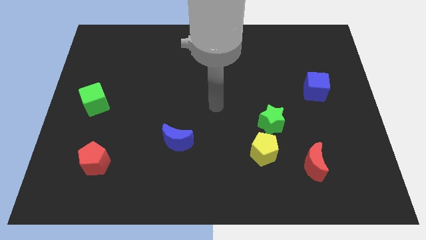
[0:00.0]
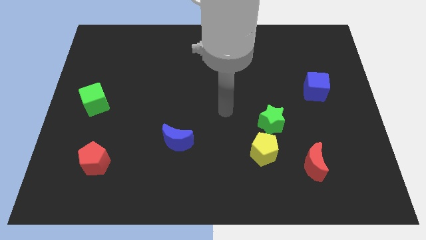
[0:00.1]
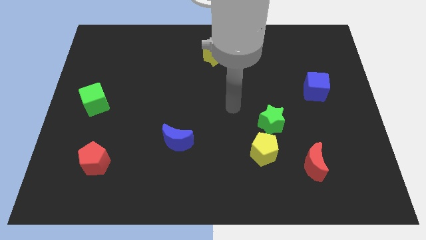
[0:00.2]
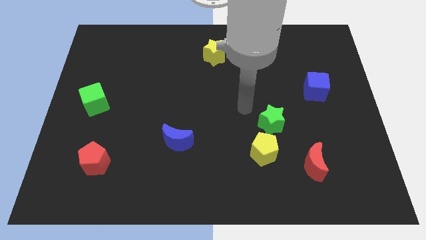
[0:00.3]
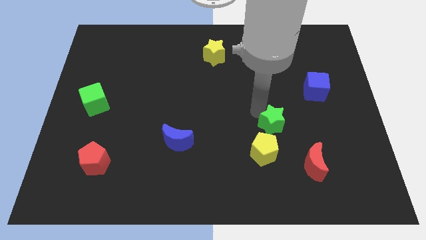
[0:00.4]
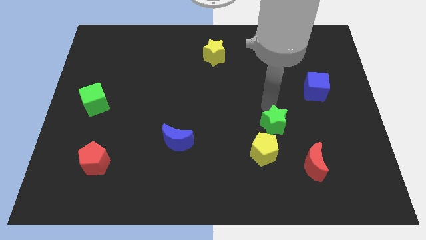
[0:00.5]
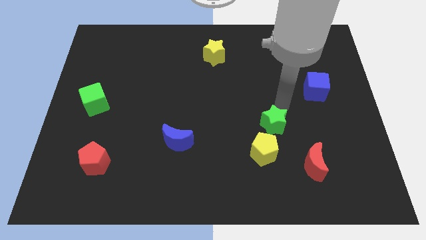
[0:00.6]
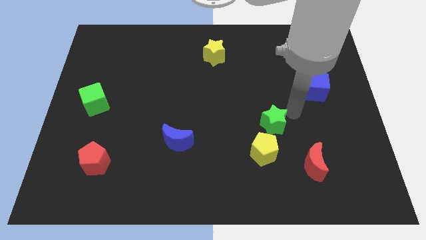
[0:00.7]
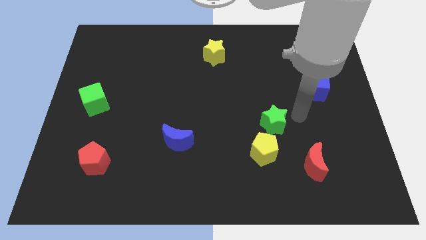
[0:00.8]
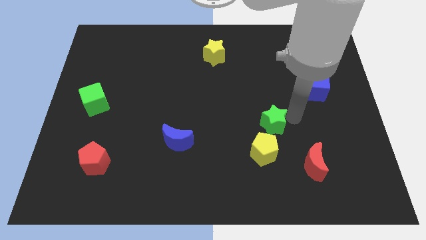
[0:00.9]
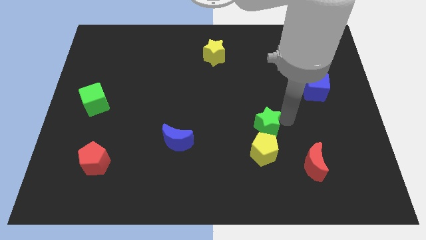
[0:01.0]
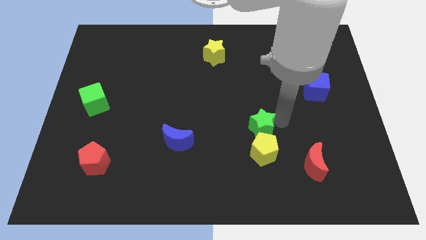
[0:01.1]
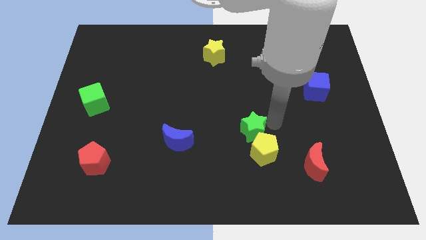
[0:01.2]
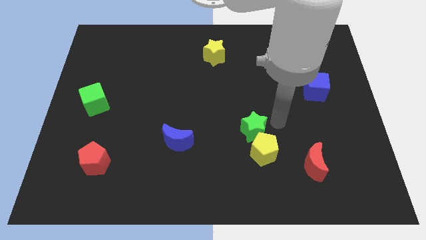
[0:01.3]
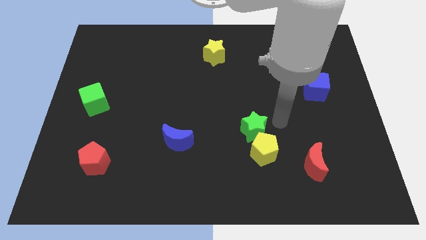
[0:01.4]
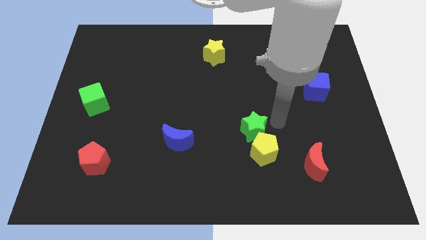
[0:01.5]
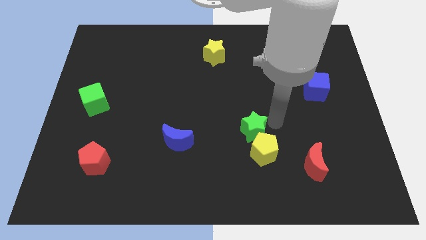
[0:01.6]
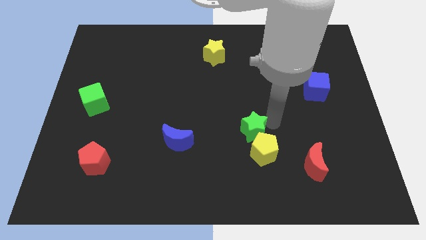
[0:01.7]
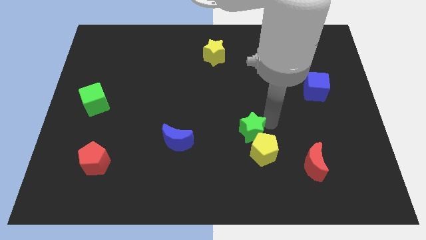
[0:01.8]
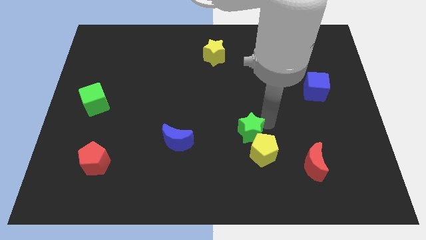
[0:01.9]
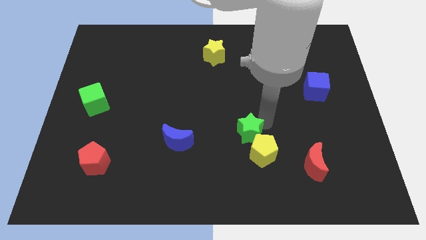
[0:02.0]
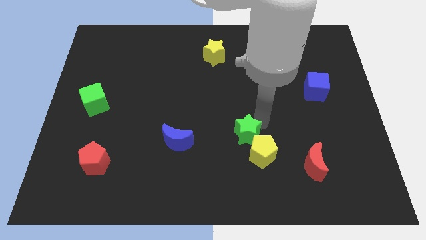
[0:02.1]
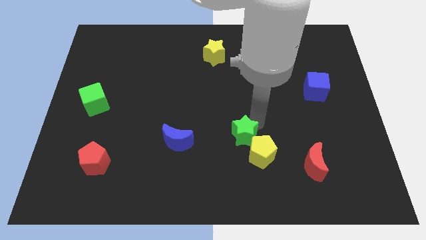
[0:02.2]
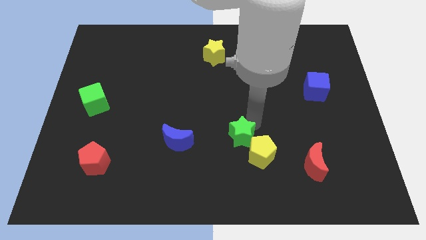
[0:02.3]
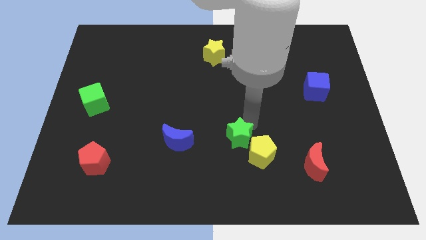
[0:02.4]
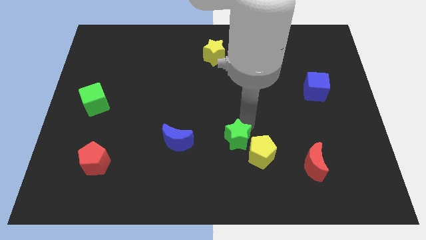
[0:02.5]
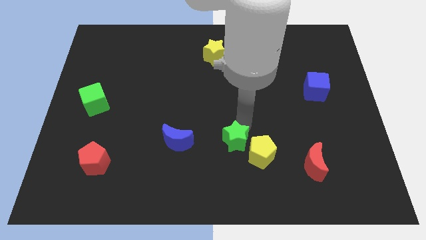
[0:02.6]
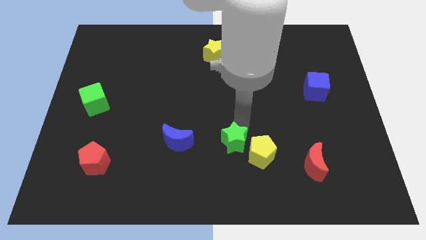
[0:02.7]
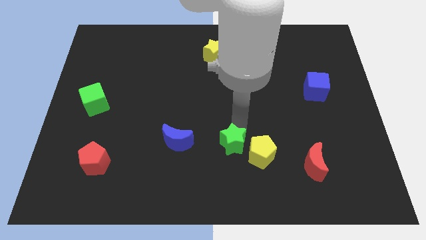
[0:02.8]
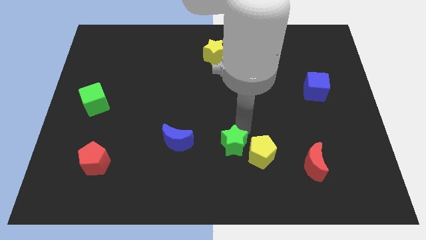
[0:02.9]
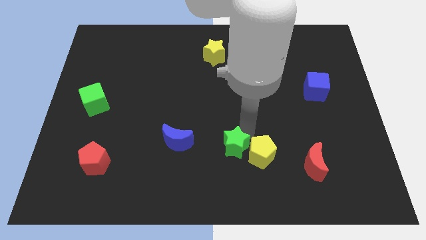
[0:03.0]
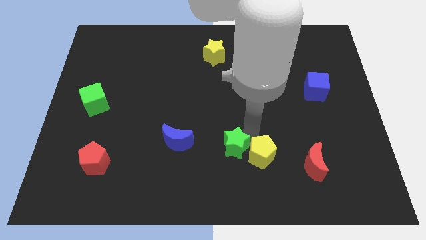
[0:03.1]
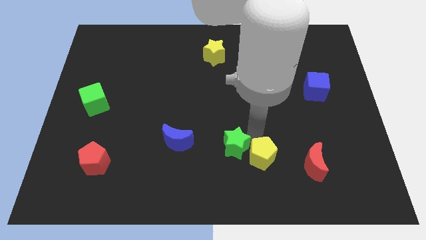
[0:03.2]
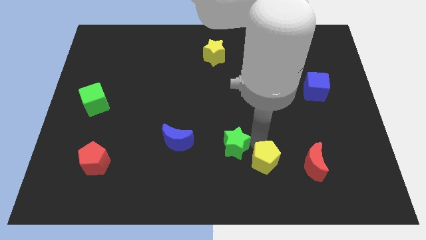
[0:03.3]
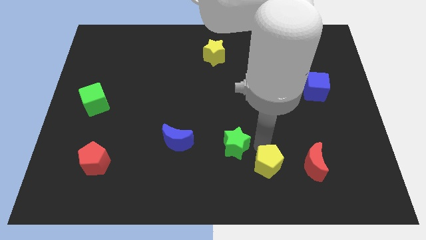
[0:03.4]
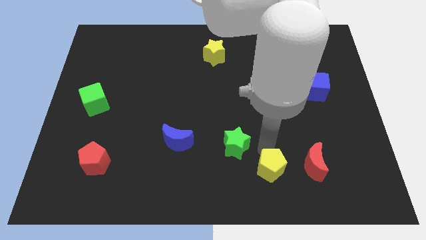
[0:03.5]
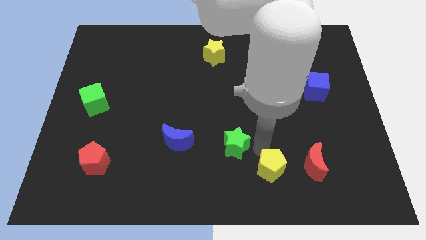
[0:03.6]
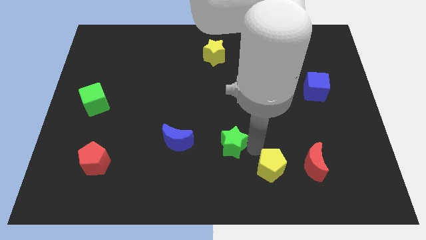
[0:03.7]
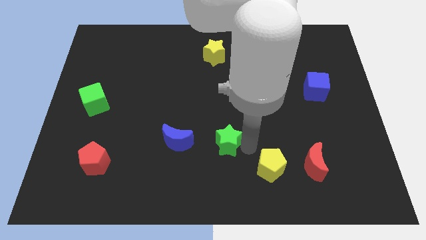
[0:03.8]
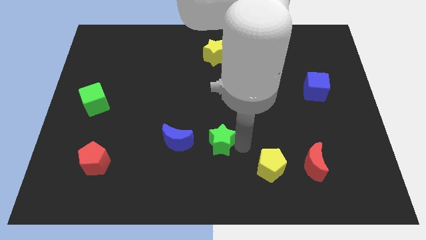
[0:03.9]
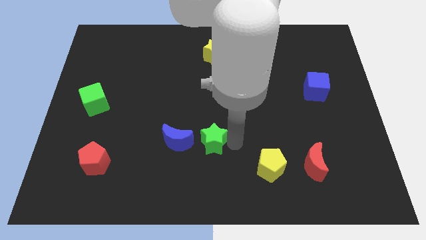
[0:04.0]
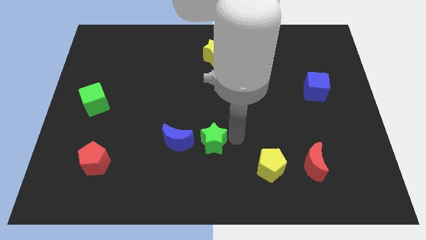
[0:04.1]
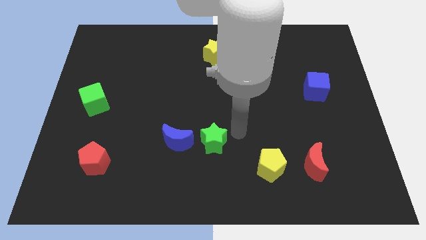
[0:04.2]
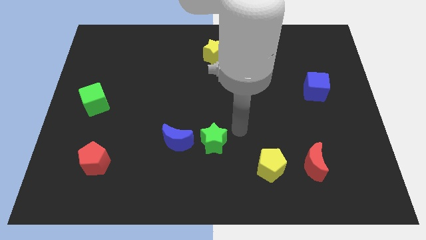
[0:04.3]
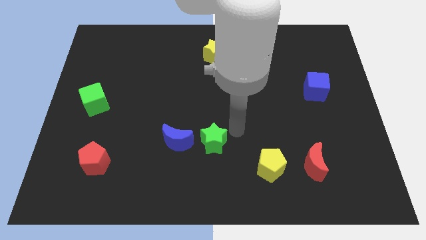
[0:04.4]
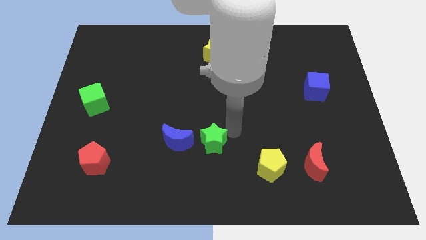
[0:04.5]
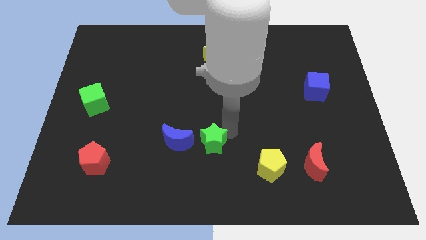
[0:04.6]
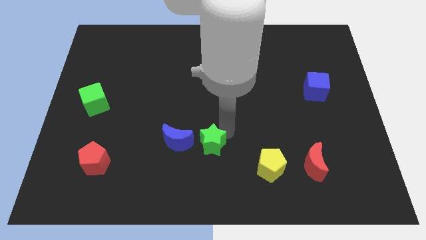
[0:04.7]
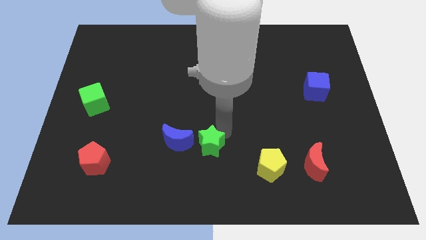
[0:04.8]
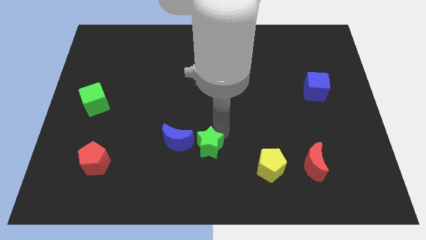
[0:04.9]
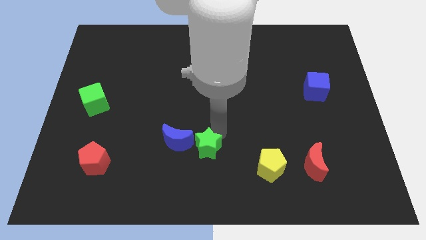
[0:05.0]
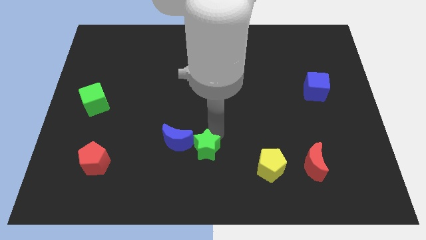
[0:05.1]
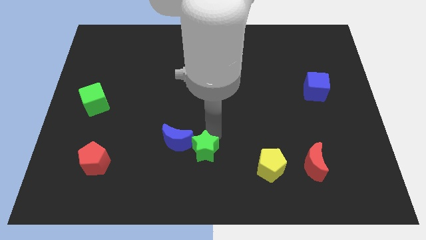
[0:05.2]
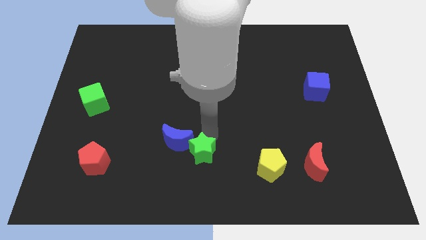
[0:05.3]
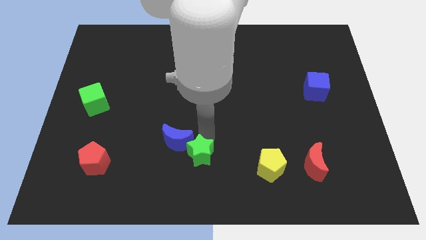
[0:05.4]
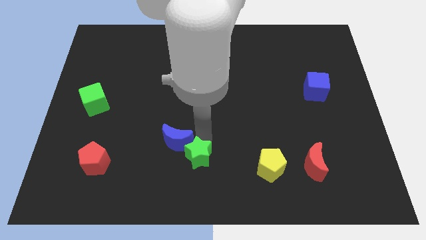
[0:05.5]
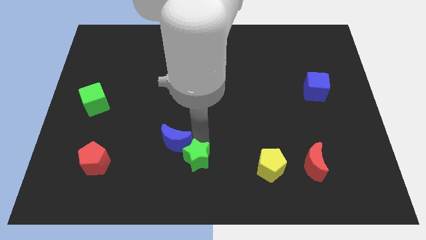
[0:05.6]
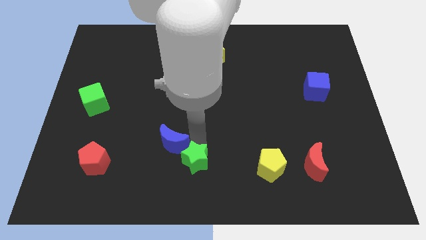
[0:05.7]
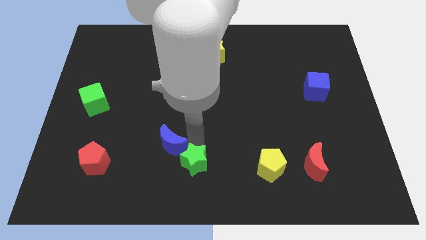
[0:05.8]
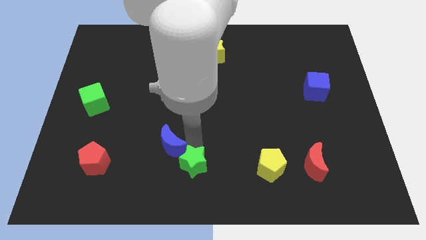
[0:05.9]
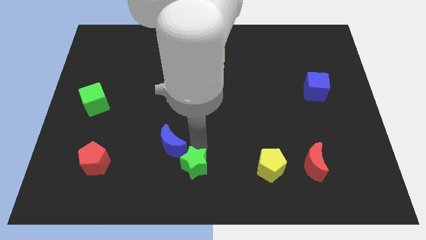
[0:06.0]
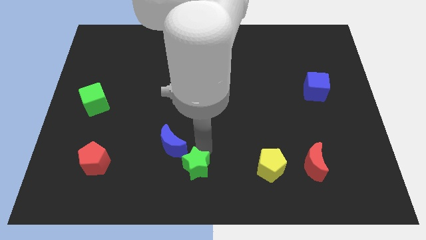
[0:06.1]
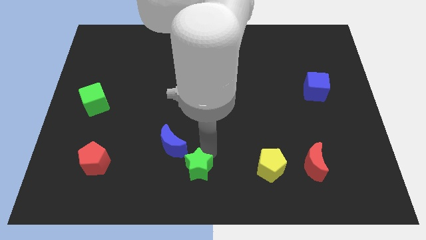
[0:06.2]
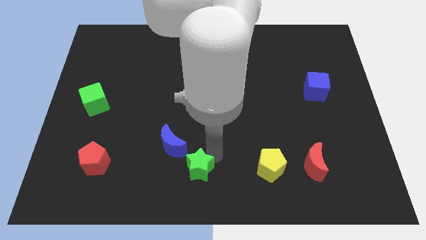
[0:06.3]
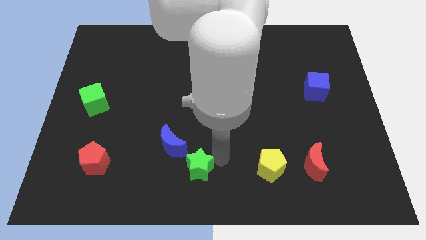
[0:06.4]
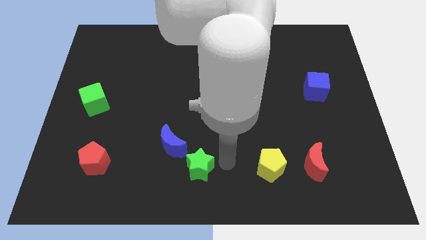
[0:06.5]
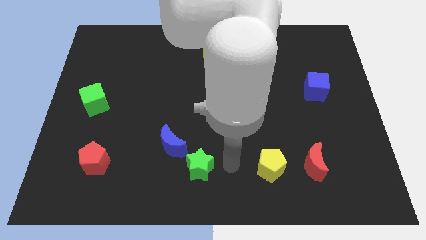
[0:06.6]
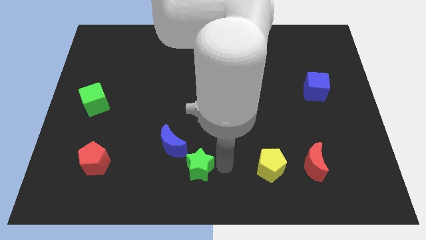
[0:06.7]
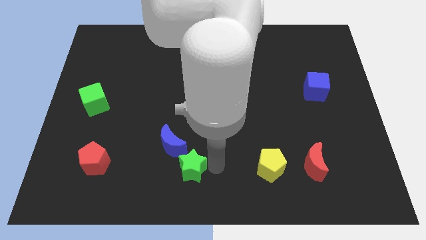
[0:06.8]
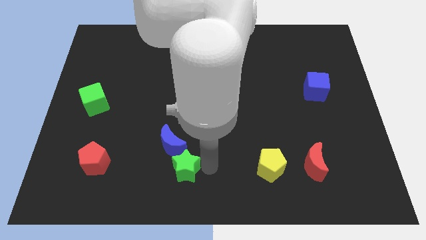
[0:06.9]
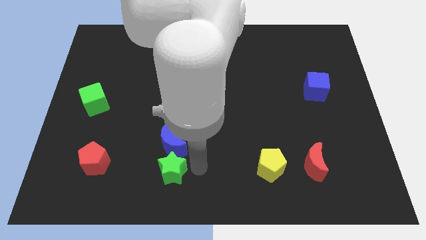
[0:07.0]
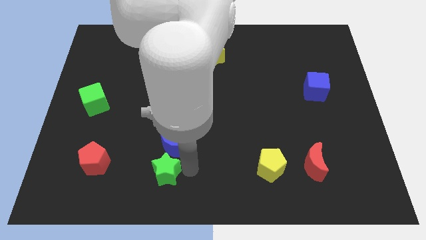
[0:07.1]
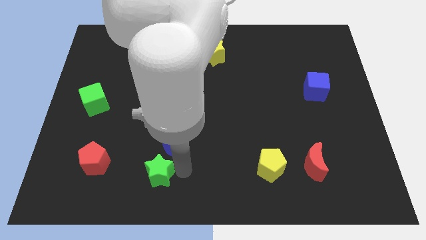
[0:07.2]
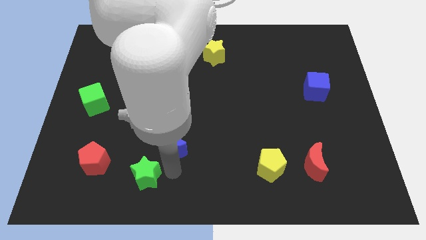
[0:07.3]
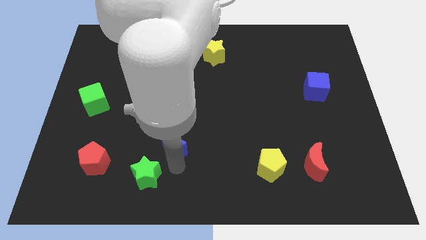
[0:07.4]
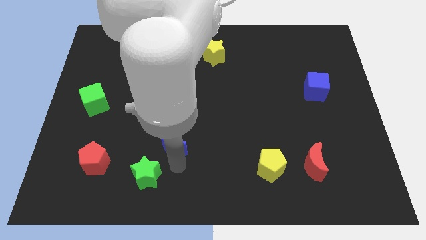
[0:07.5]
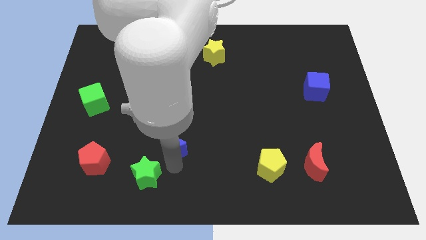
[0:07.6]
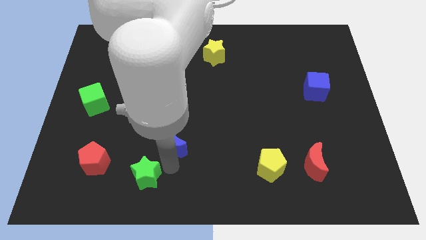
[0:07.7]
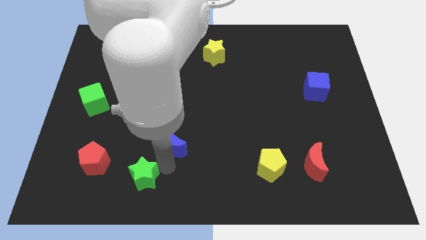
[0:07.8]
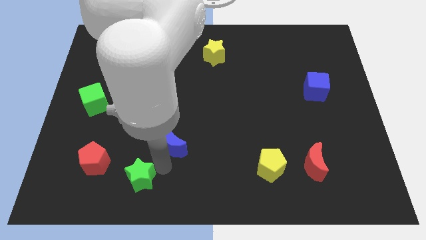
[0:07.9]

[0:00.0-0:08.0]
push the green star to the bottom right side of the red pentagon

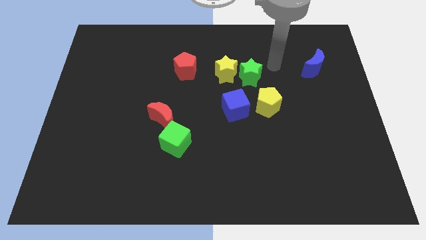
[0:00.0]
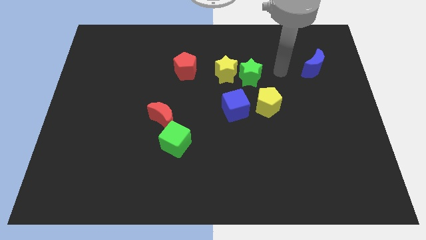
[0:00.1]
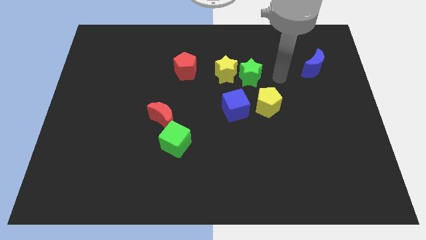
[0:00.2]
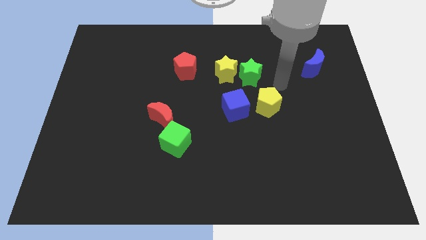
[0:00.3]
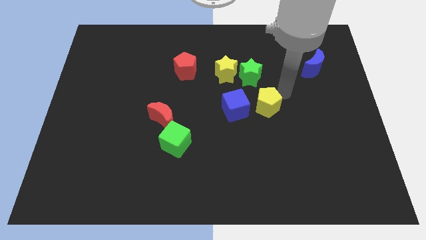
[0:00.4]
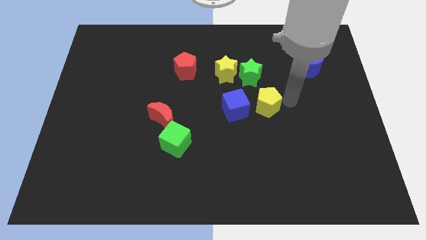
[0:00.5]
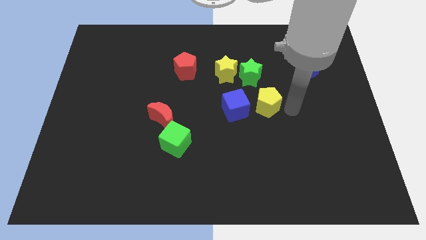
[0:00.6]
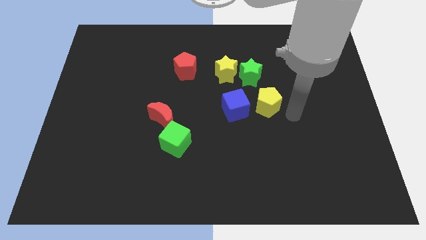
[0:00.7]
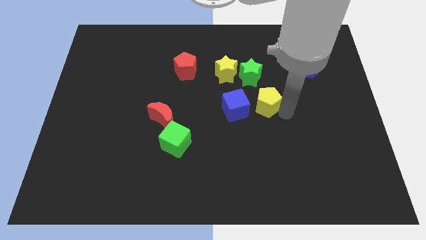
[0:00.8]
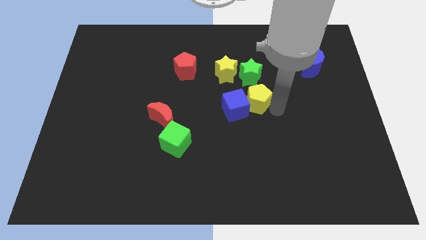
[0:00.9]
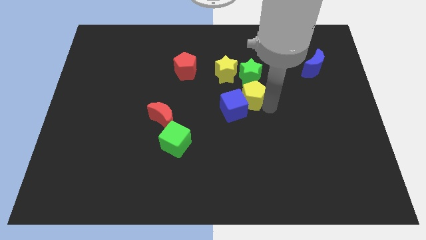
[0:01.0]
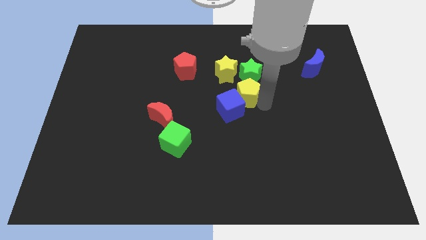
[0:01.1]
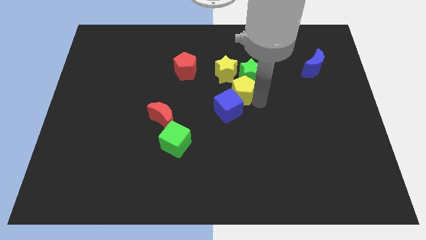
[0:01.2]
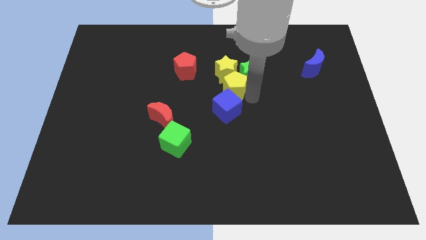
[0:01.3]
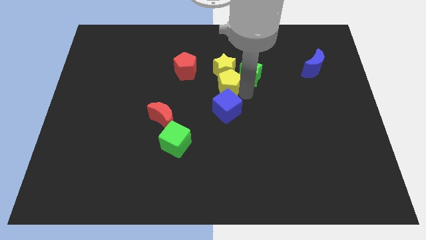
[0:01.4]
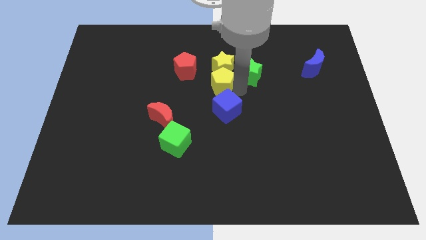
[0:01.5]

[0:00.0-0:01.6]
push the yellow pentagon to the top left side of the blue cube
